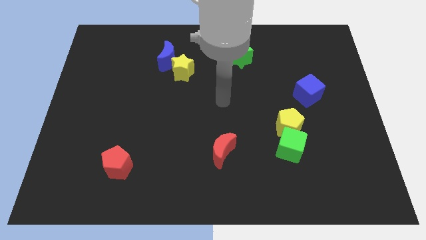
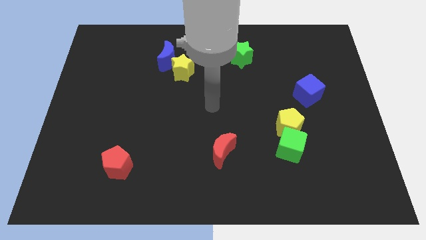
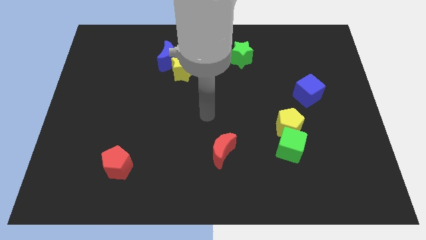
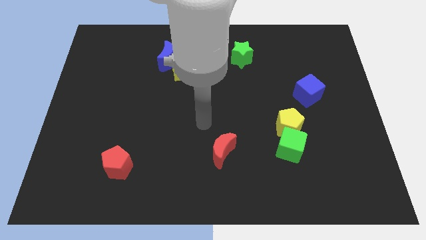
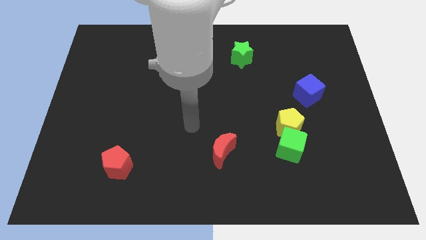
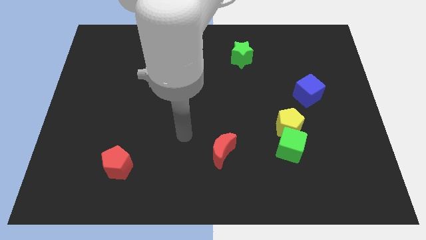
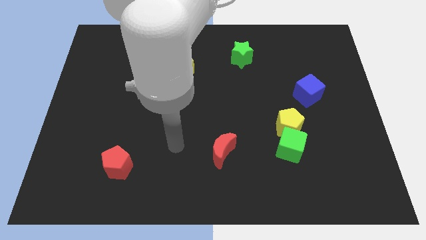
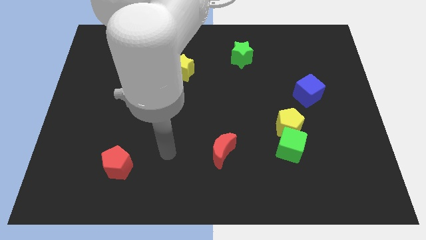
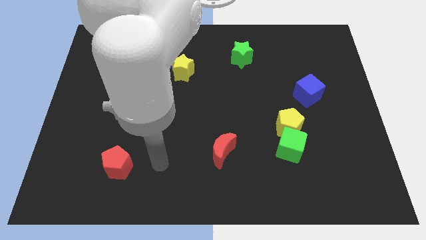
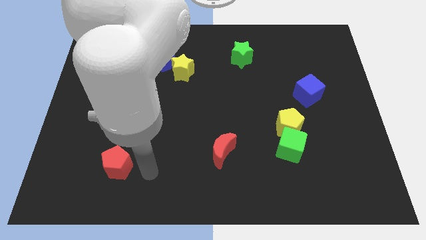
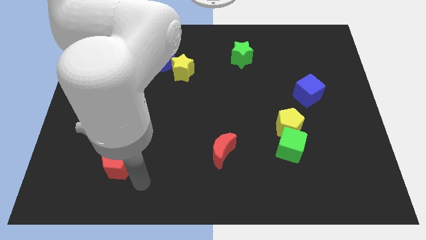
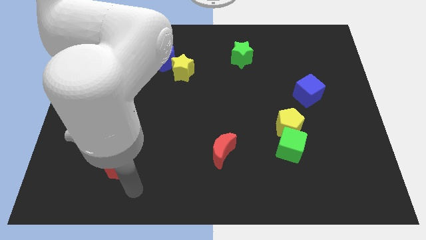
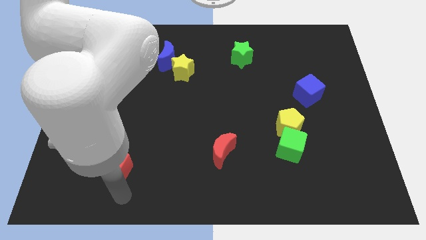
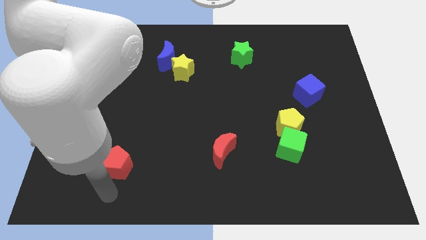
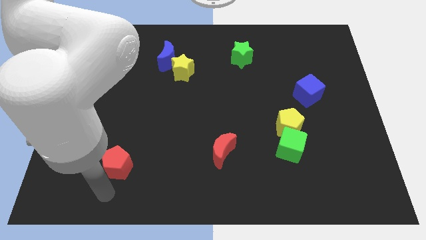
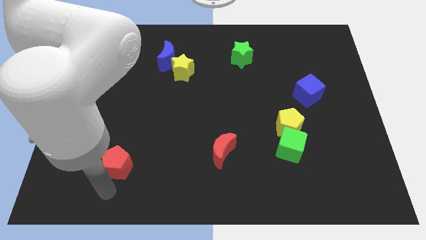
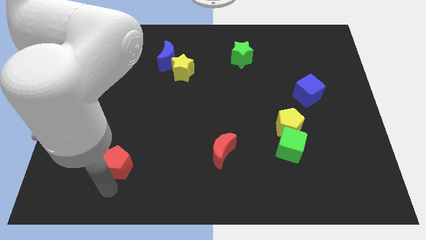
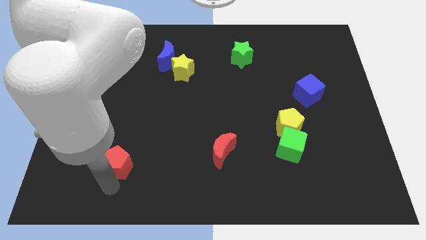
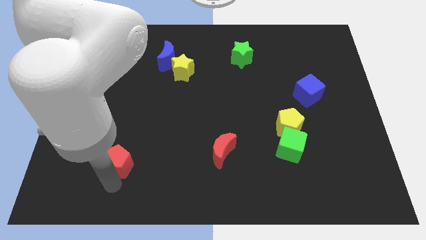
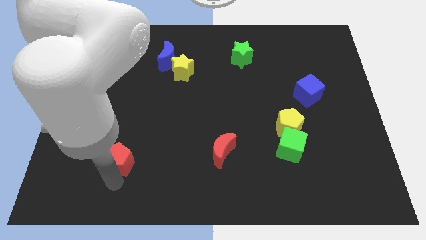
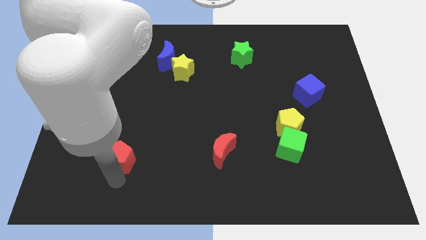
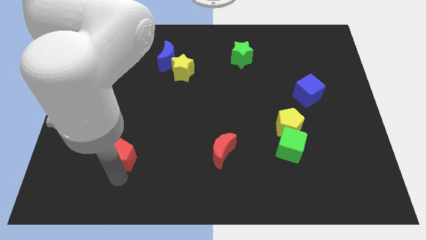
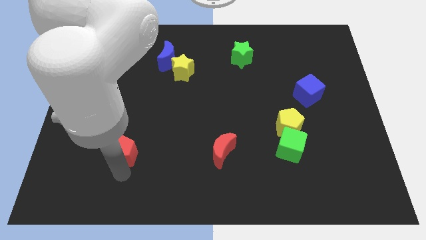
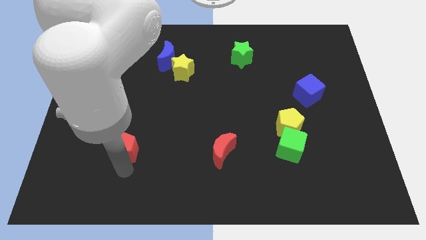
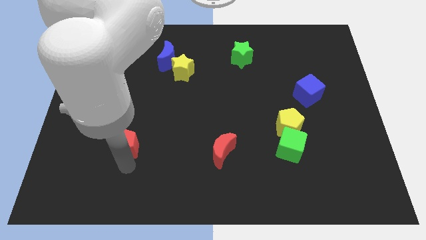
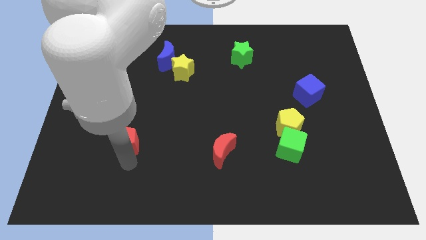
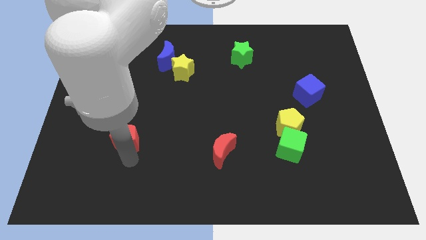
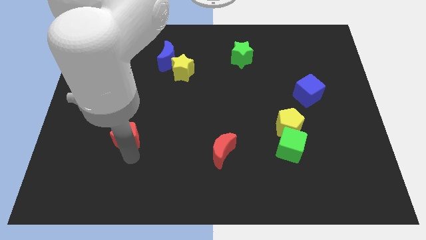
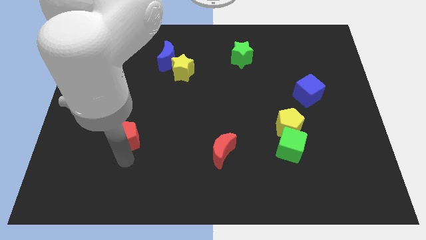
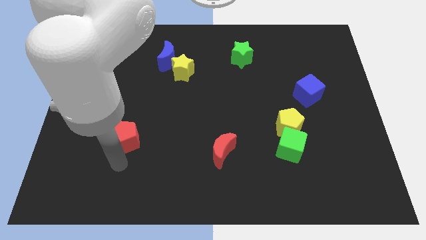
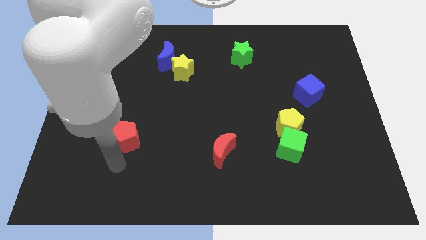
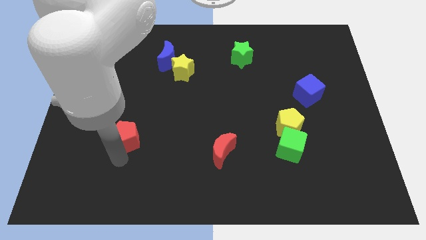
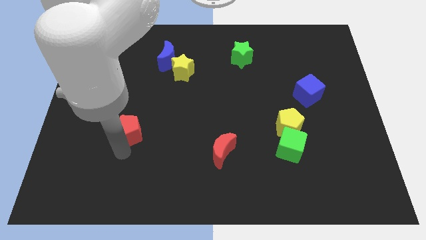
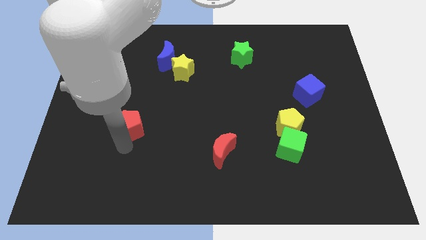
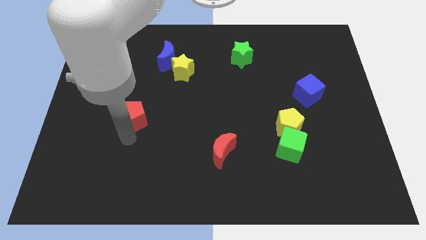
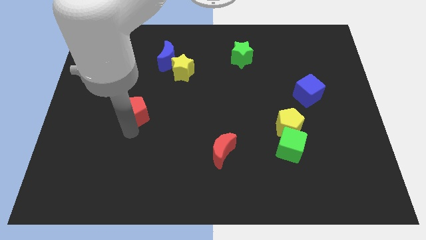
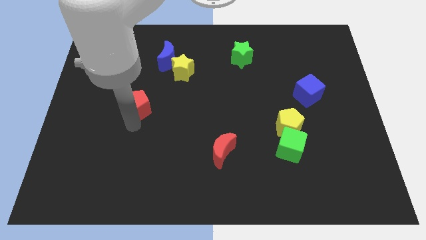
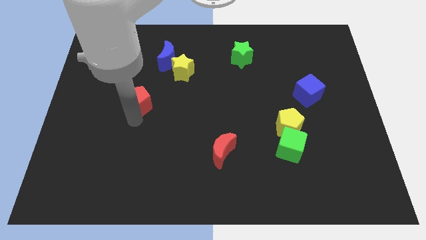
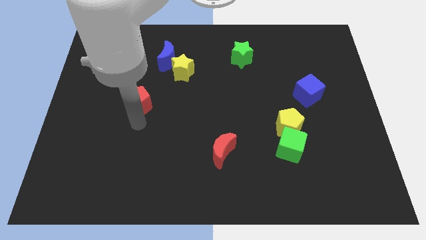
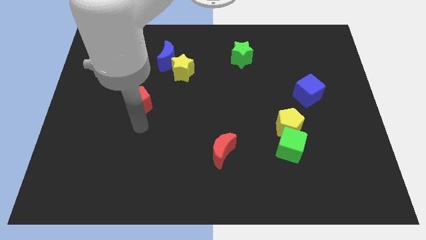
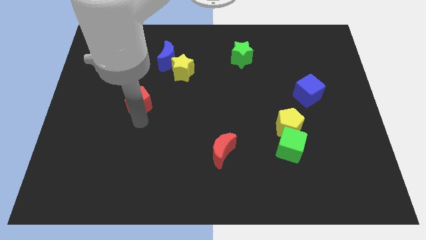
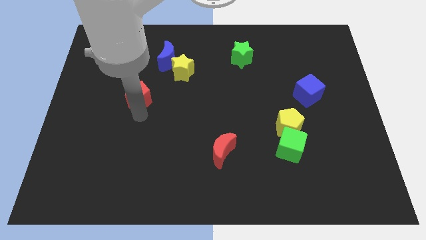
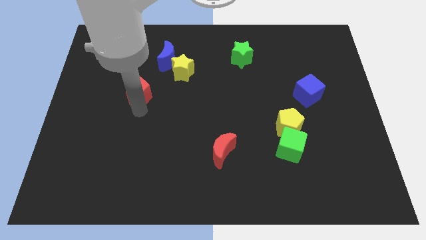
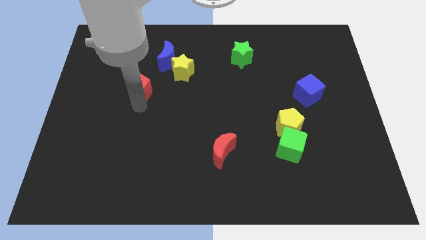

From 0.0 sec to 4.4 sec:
move the red pentagon to the bottom left side of the blue moon

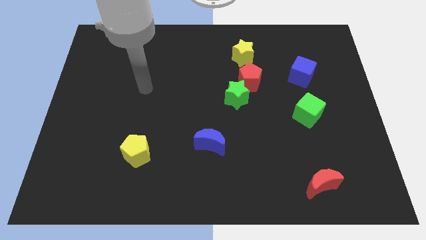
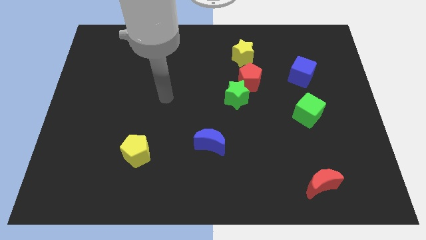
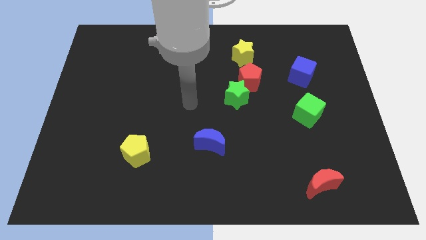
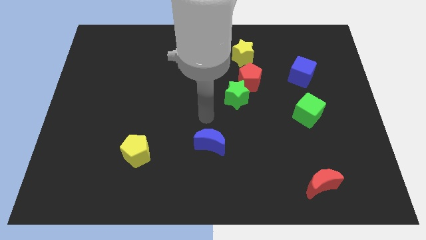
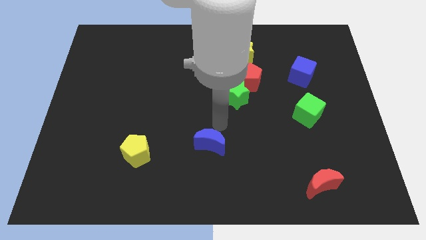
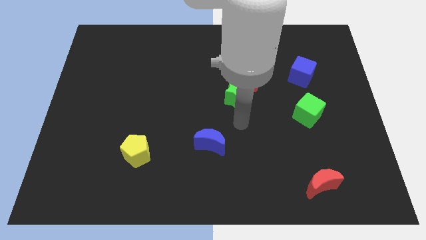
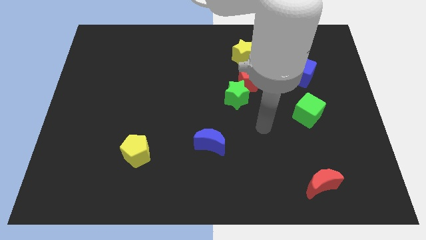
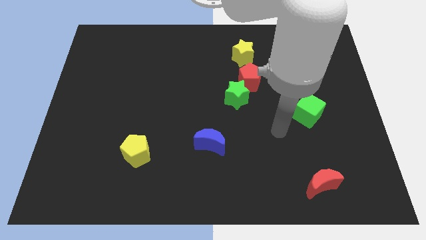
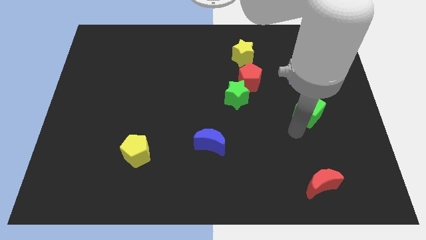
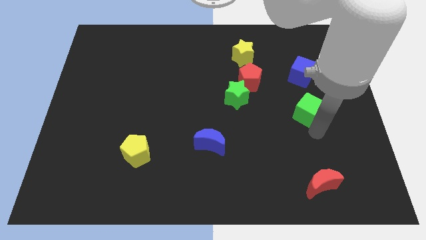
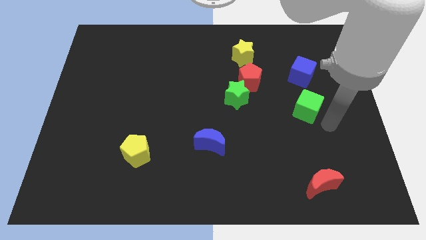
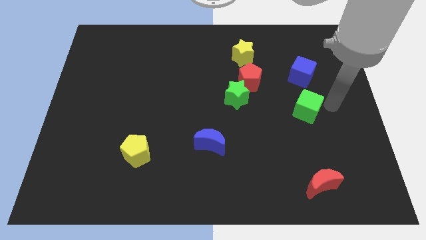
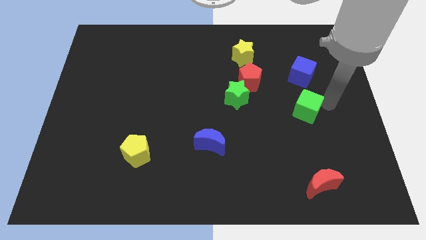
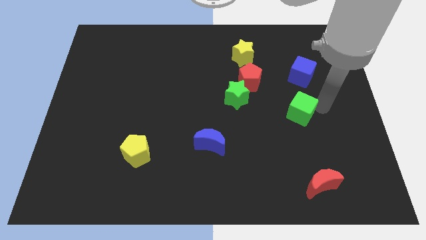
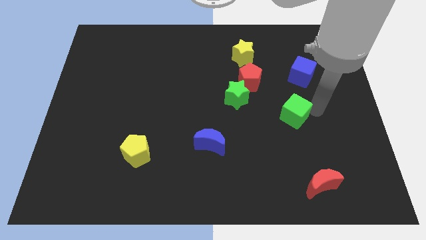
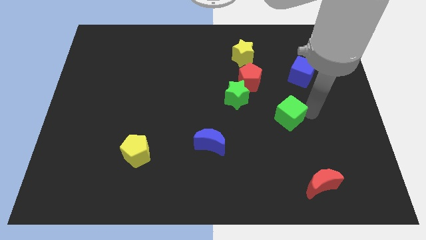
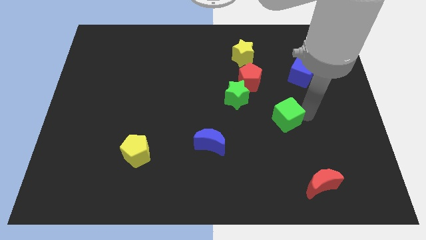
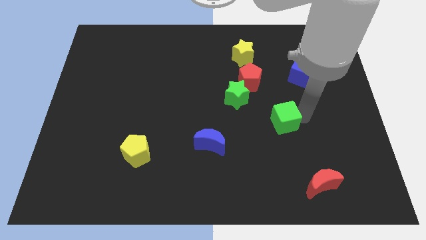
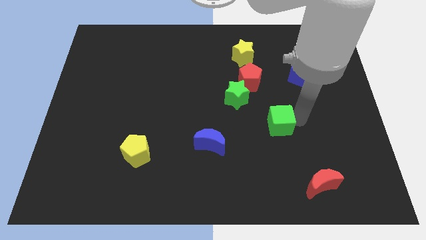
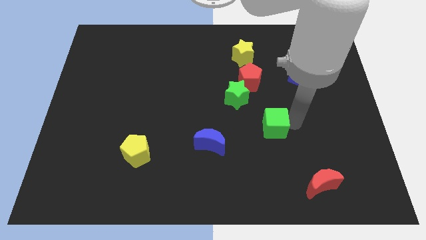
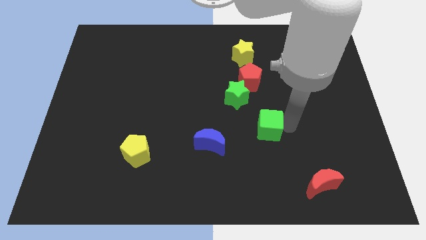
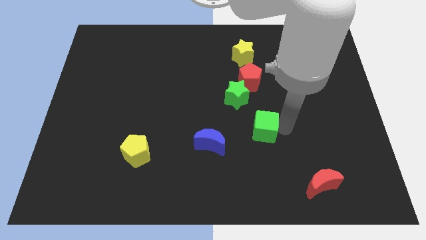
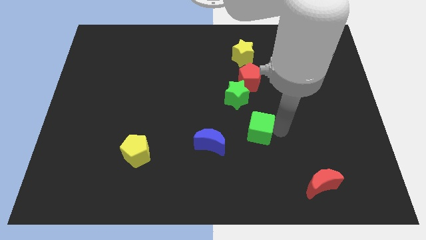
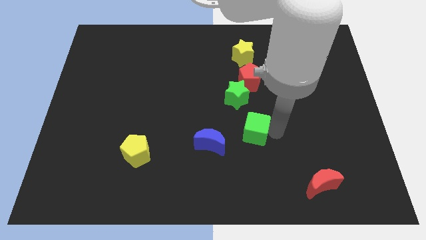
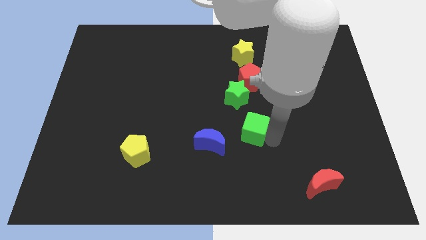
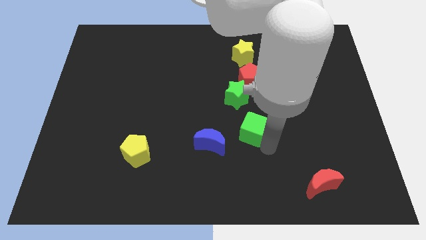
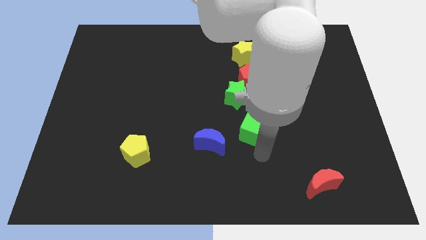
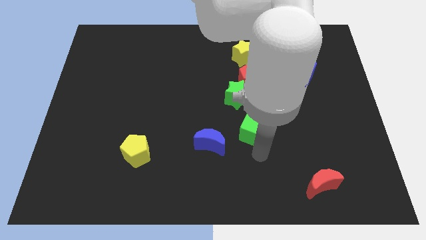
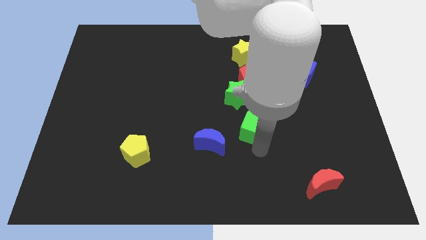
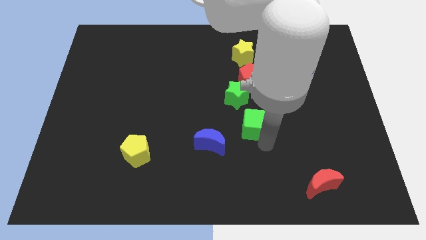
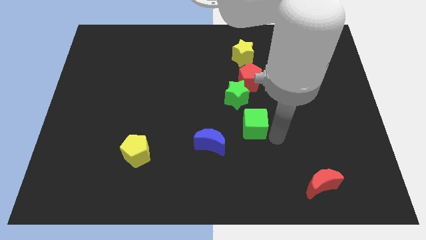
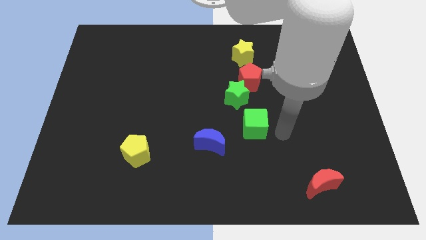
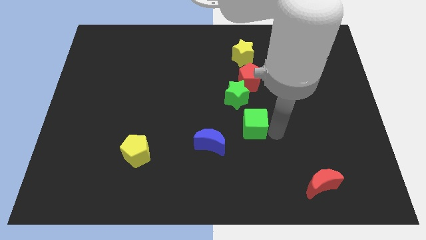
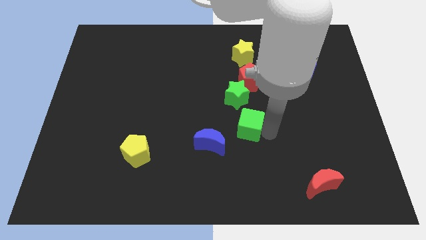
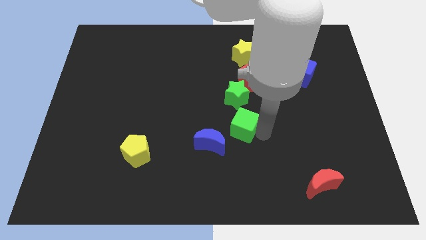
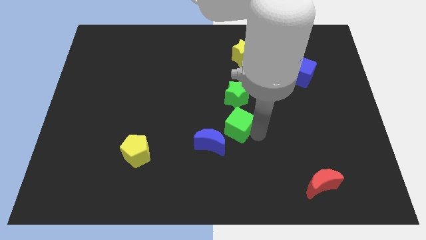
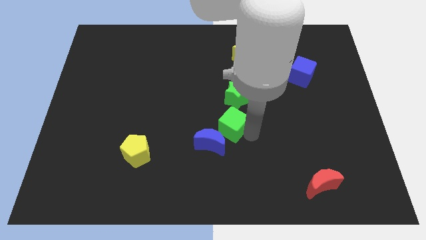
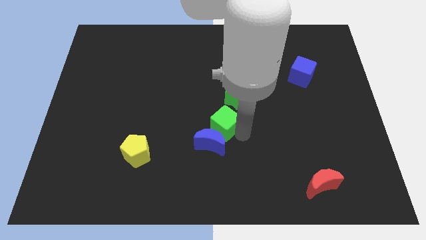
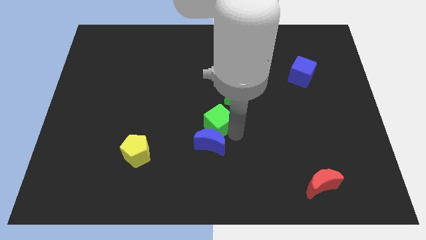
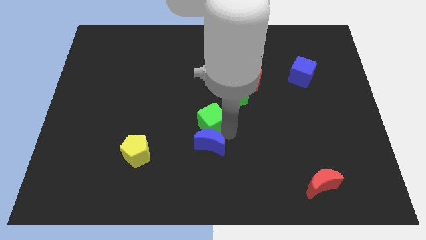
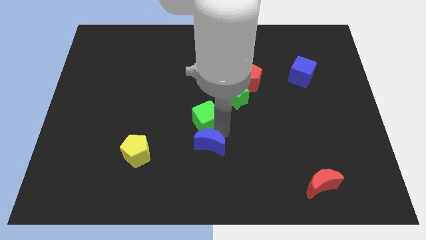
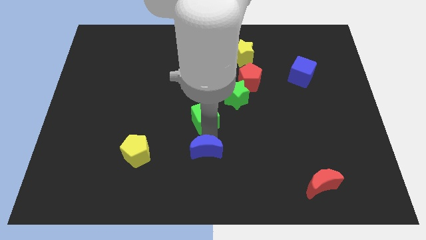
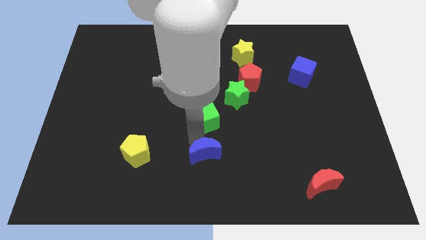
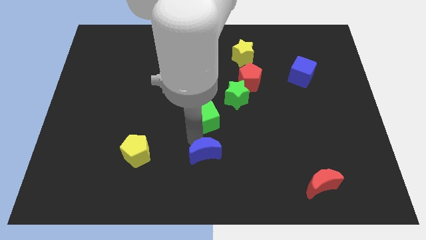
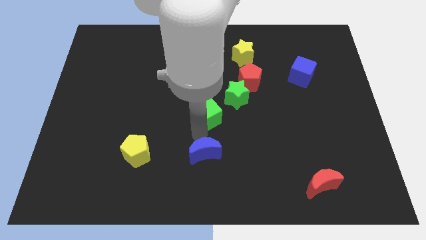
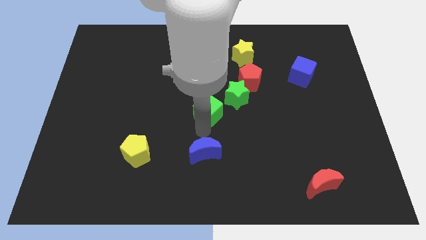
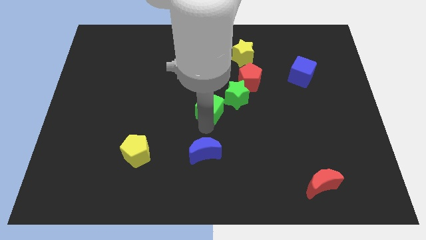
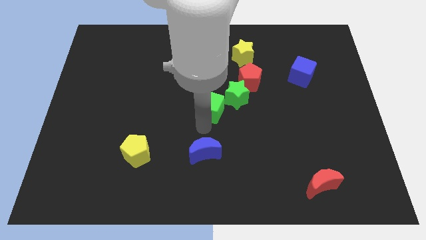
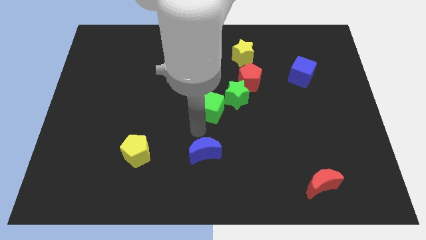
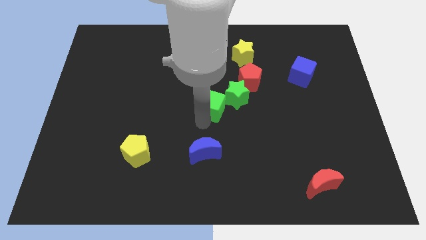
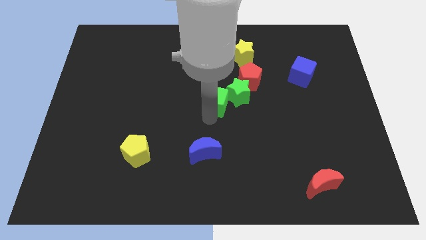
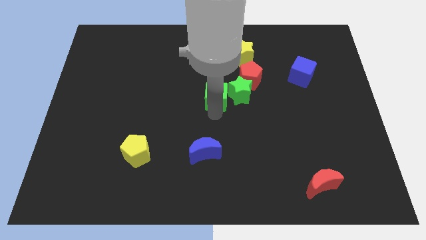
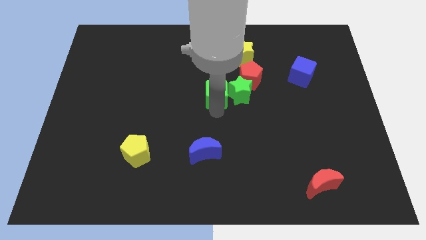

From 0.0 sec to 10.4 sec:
slide the green cube to the top left side of the green star
